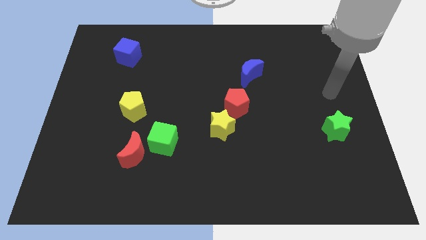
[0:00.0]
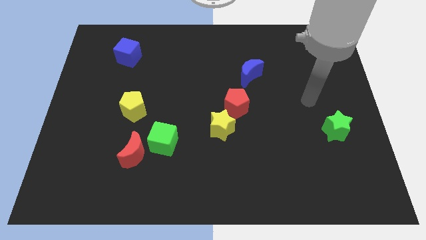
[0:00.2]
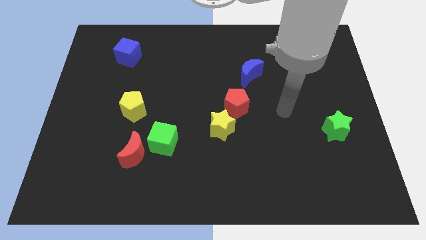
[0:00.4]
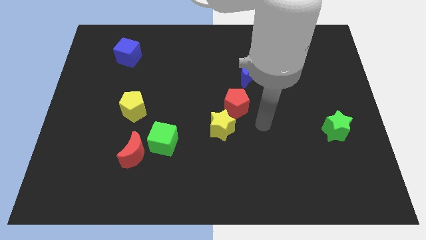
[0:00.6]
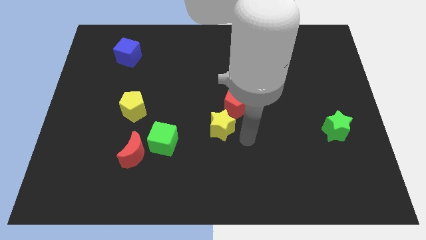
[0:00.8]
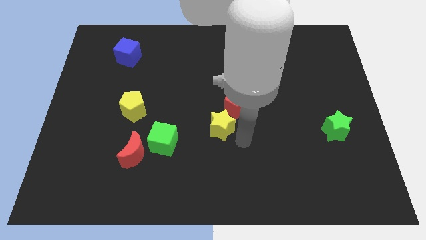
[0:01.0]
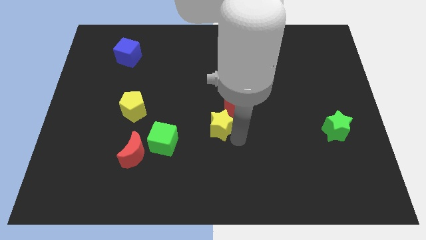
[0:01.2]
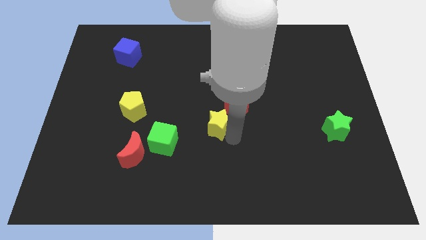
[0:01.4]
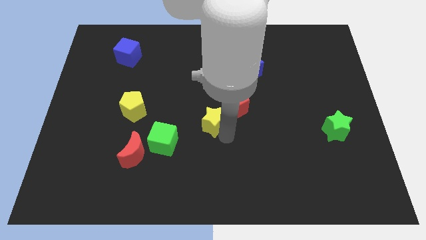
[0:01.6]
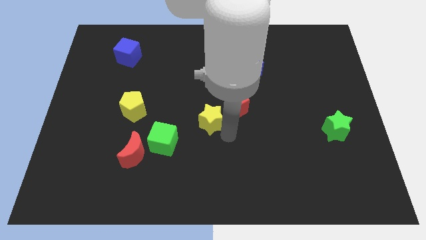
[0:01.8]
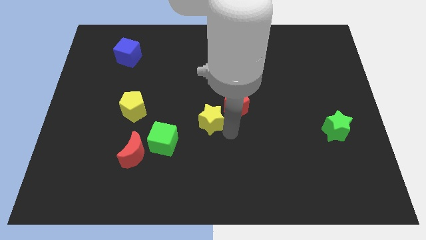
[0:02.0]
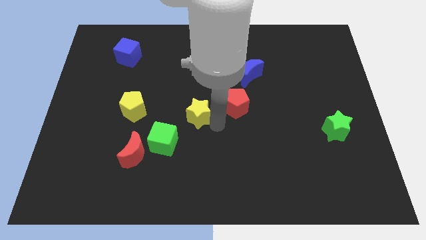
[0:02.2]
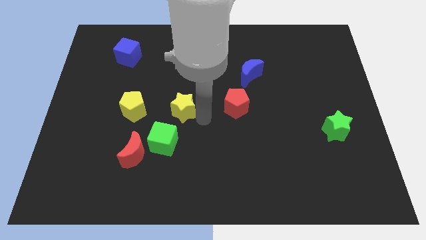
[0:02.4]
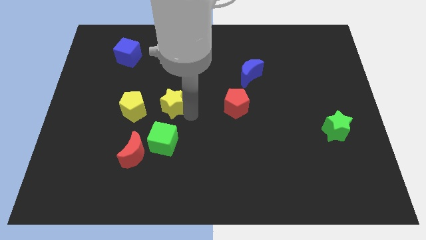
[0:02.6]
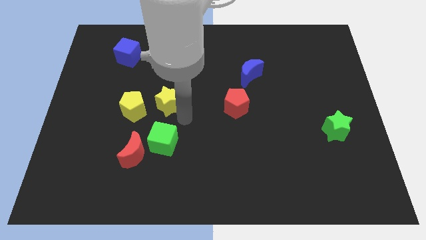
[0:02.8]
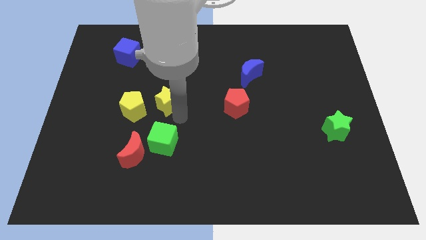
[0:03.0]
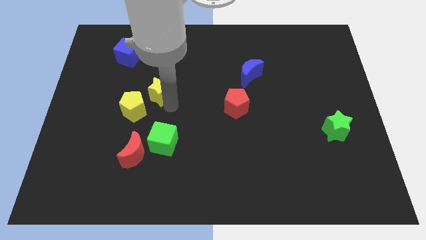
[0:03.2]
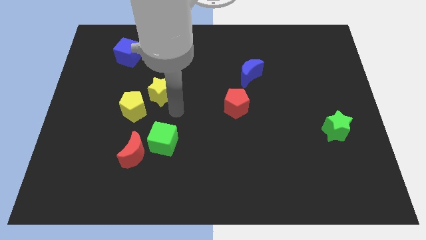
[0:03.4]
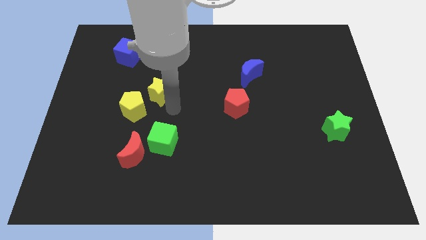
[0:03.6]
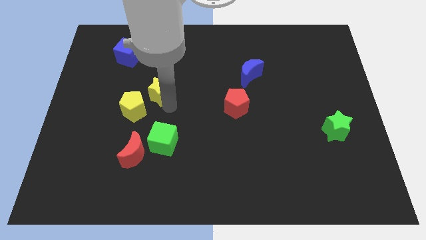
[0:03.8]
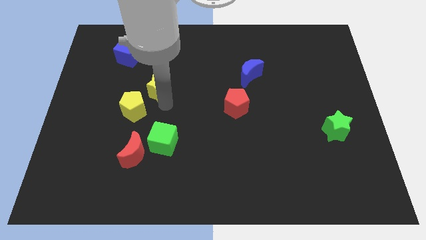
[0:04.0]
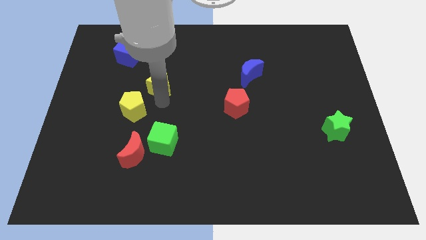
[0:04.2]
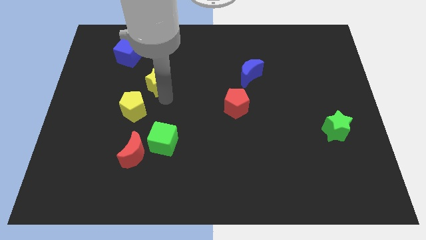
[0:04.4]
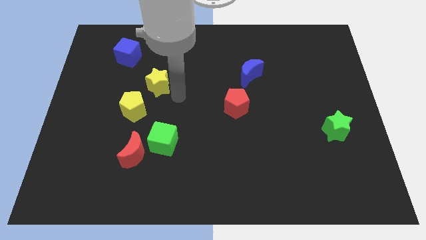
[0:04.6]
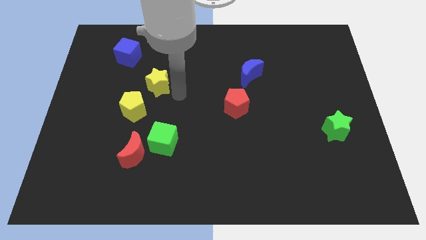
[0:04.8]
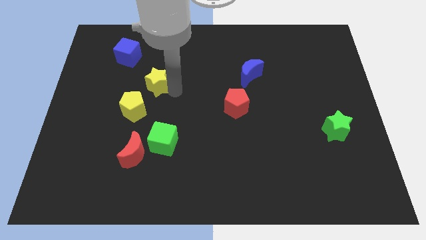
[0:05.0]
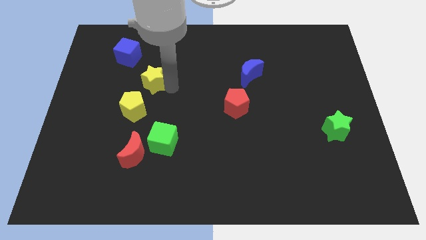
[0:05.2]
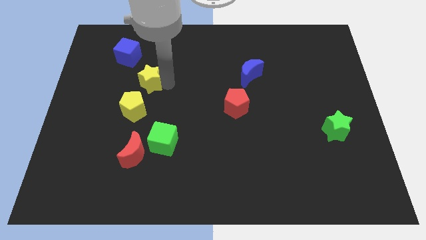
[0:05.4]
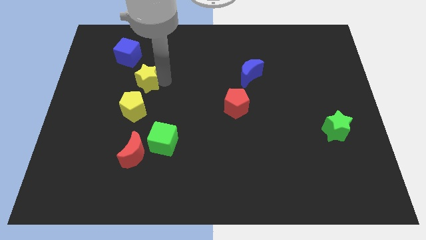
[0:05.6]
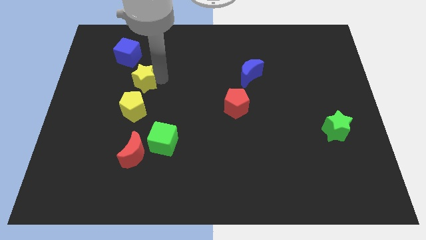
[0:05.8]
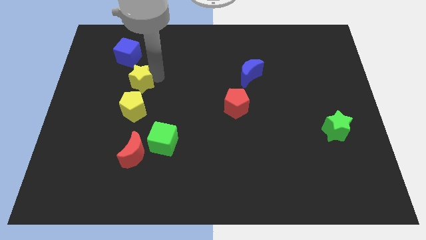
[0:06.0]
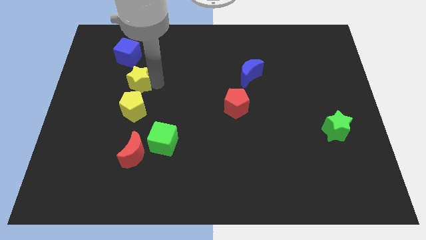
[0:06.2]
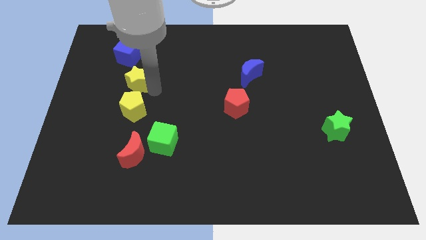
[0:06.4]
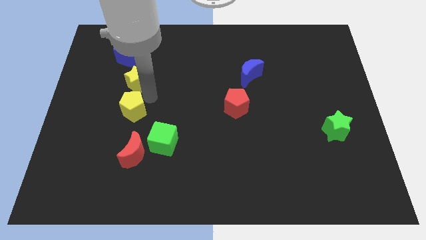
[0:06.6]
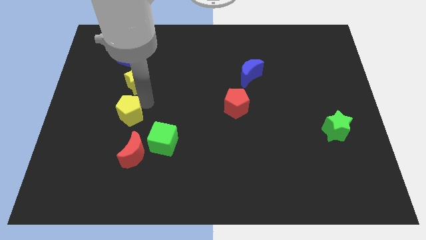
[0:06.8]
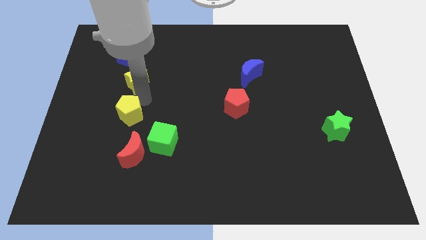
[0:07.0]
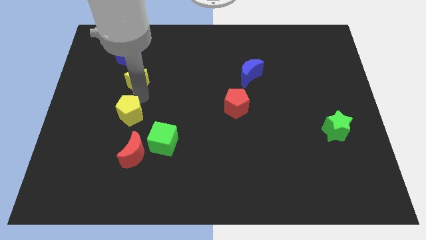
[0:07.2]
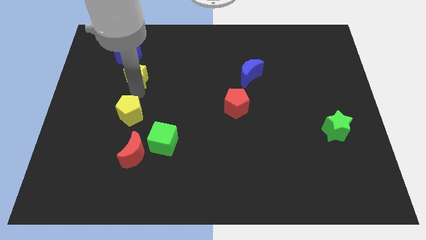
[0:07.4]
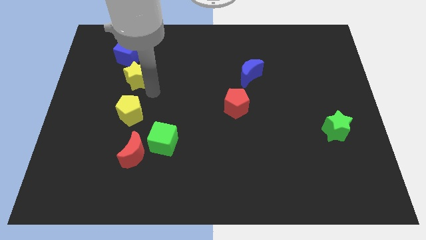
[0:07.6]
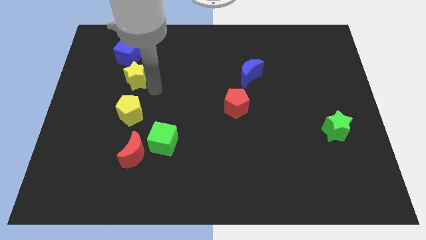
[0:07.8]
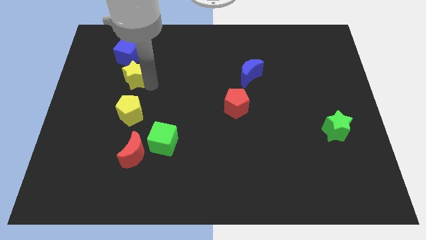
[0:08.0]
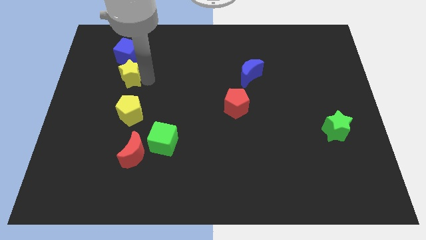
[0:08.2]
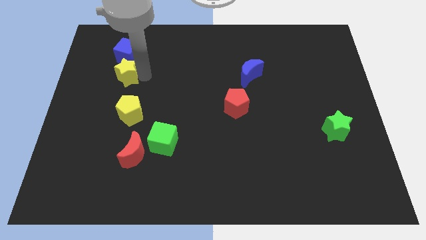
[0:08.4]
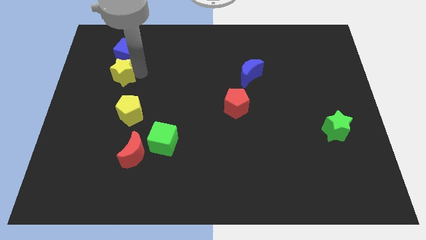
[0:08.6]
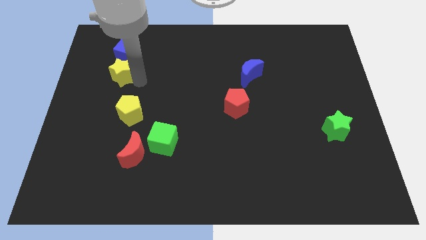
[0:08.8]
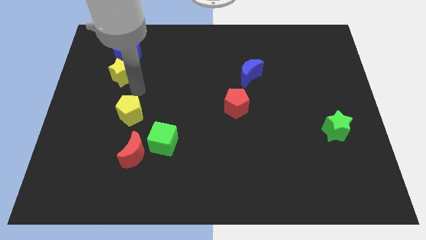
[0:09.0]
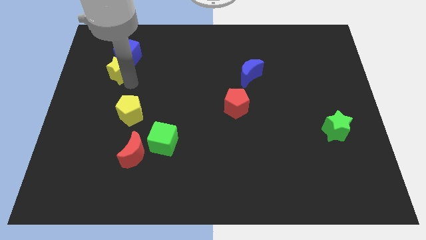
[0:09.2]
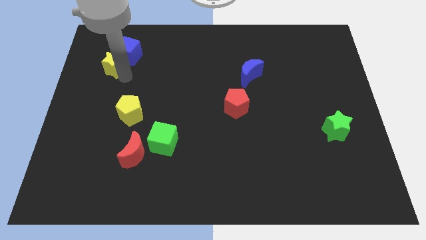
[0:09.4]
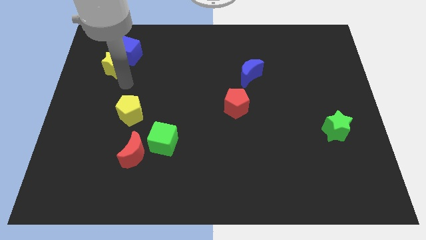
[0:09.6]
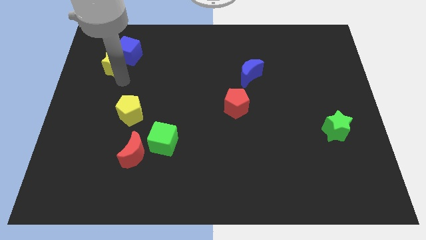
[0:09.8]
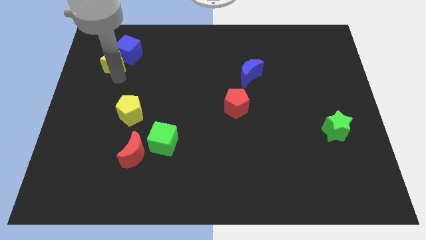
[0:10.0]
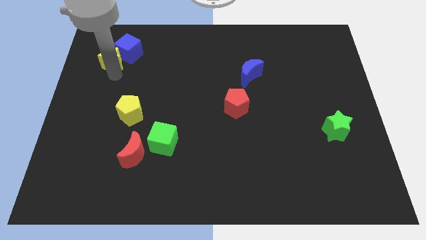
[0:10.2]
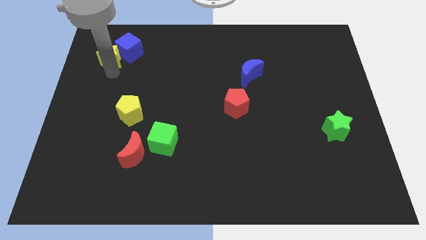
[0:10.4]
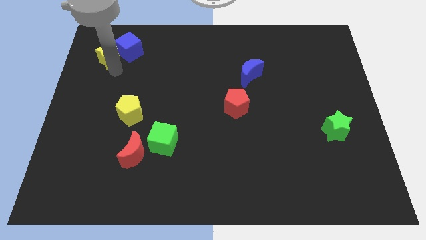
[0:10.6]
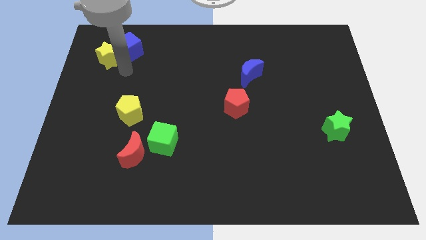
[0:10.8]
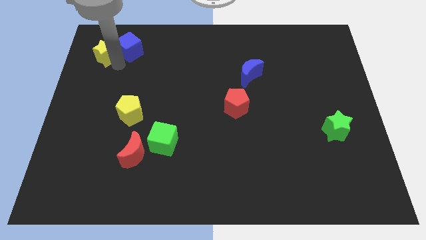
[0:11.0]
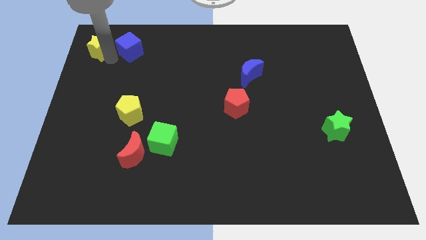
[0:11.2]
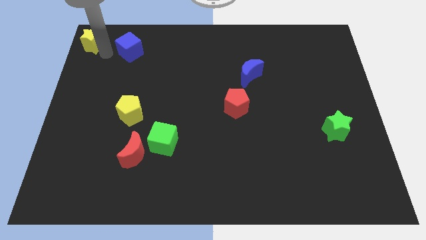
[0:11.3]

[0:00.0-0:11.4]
put the yellow star to the top left of the board

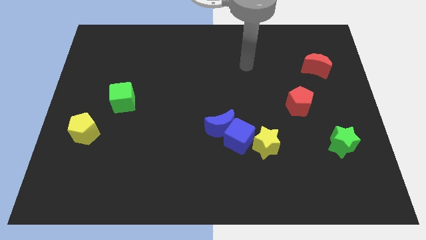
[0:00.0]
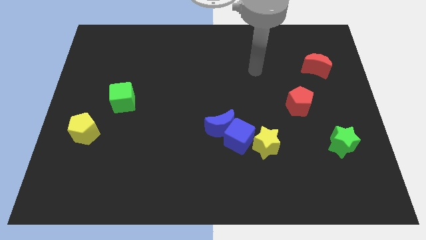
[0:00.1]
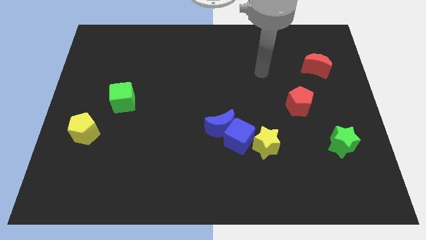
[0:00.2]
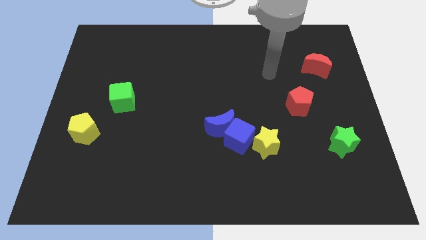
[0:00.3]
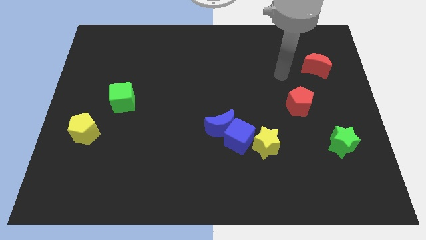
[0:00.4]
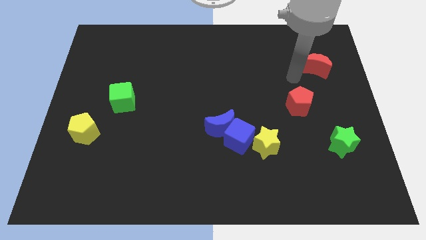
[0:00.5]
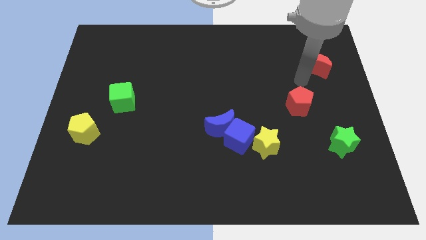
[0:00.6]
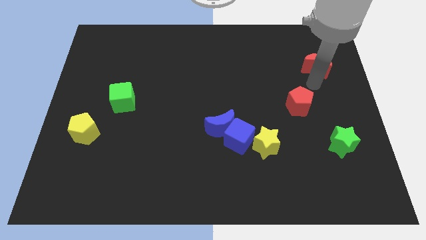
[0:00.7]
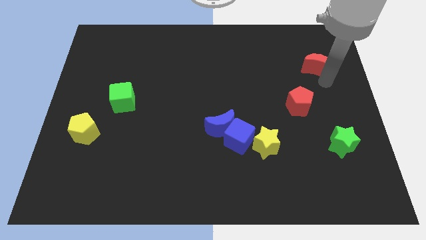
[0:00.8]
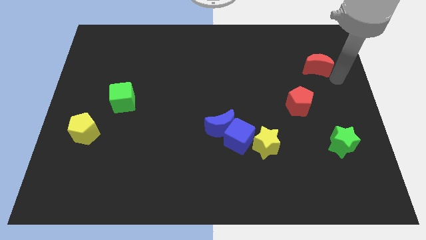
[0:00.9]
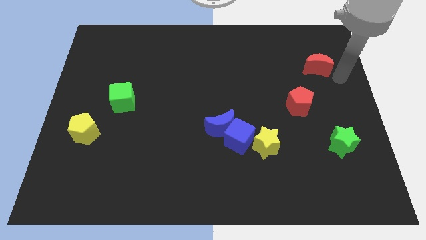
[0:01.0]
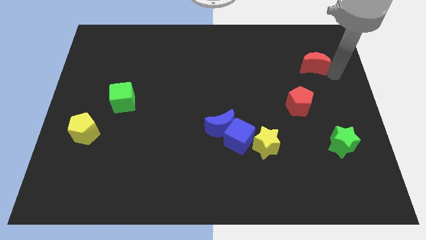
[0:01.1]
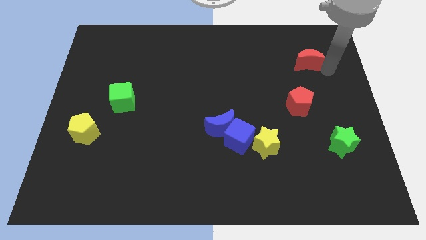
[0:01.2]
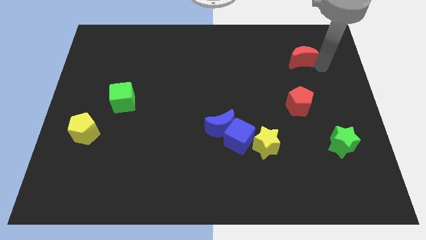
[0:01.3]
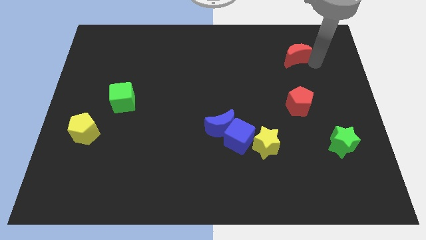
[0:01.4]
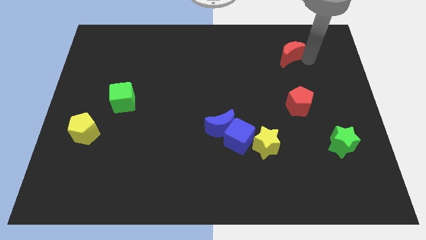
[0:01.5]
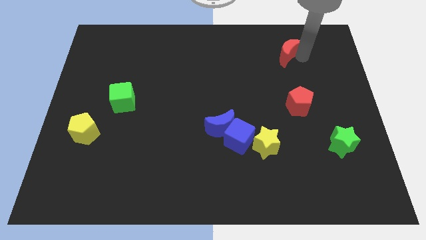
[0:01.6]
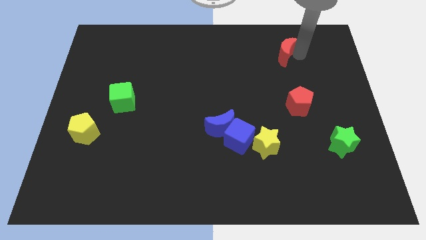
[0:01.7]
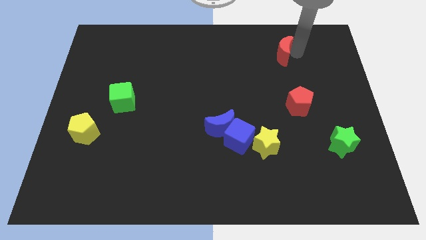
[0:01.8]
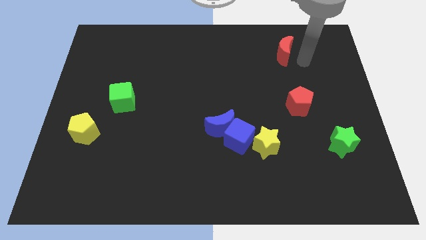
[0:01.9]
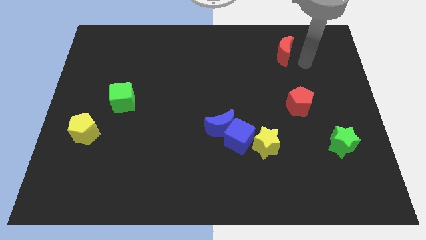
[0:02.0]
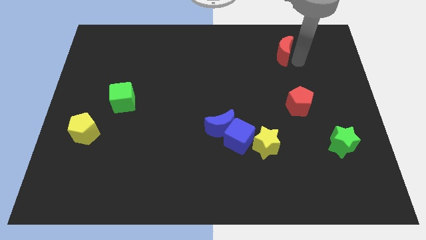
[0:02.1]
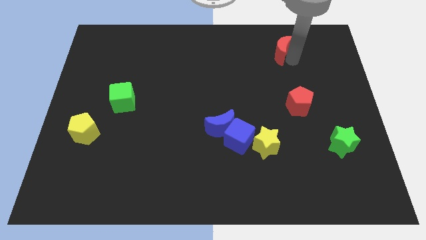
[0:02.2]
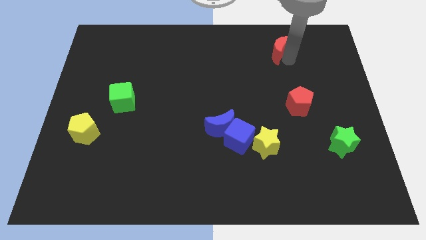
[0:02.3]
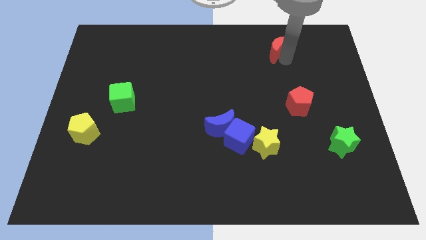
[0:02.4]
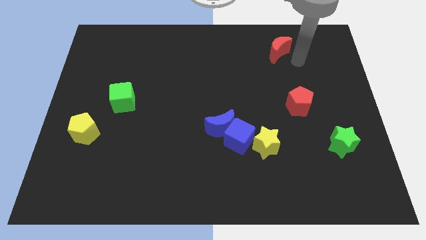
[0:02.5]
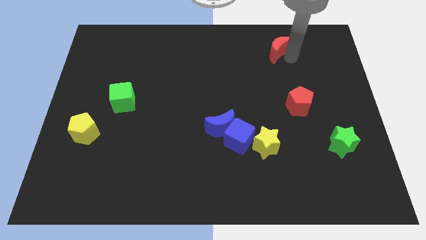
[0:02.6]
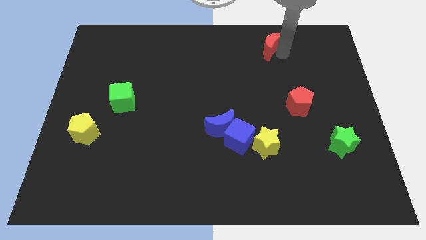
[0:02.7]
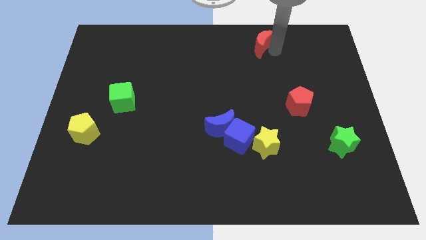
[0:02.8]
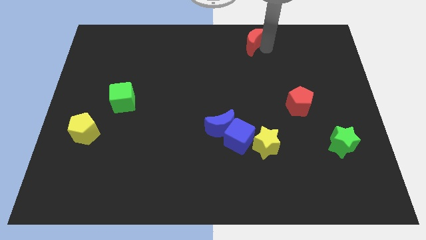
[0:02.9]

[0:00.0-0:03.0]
push the red moon to the top
